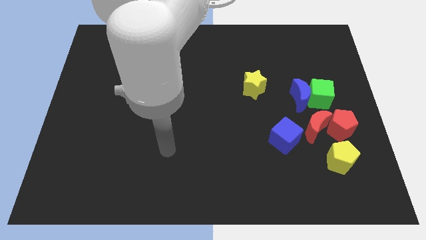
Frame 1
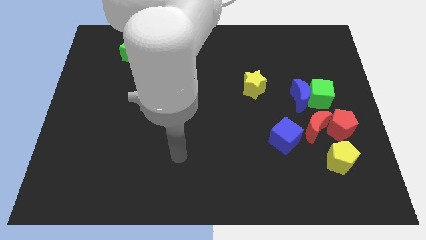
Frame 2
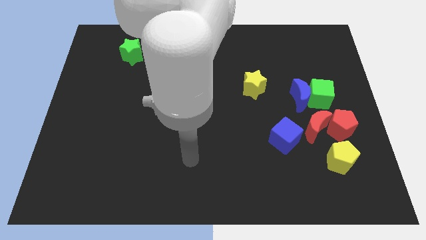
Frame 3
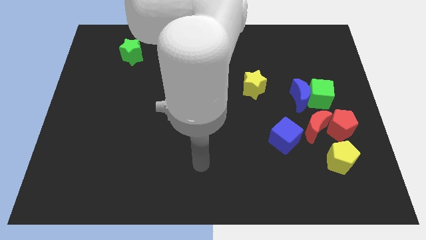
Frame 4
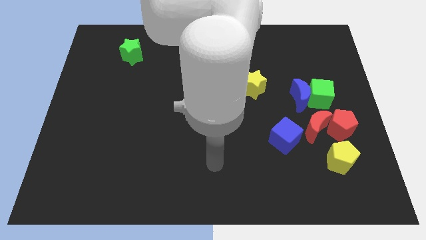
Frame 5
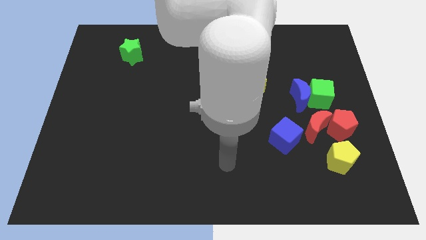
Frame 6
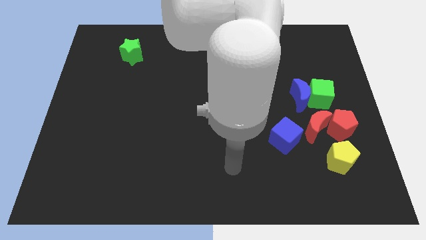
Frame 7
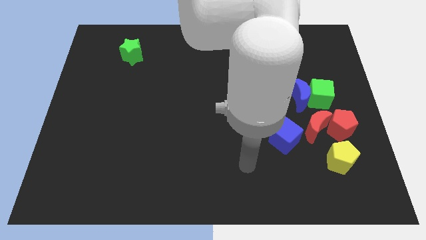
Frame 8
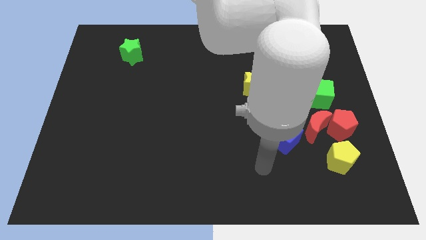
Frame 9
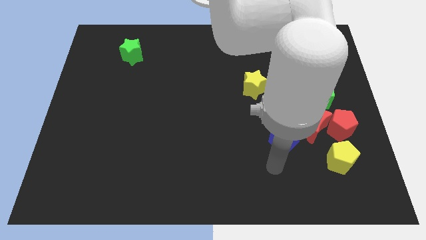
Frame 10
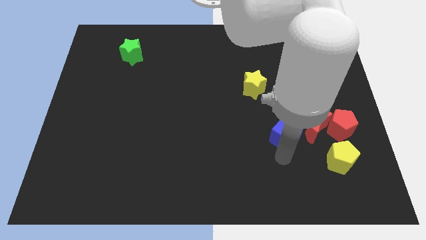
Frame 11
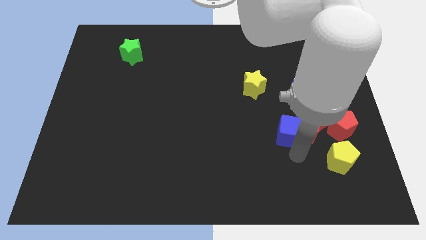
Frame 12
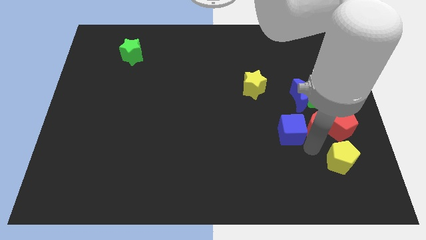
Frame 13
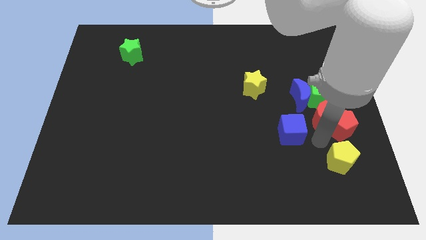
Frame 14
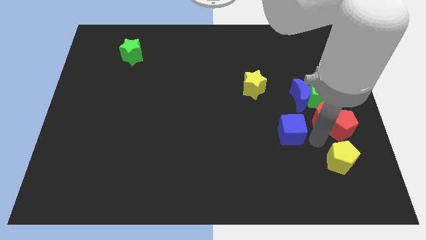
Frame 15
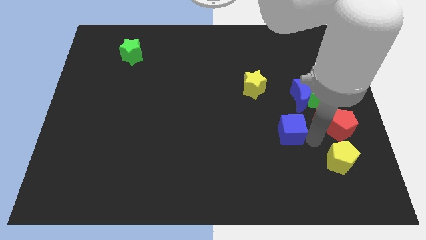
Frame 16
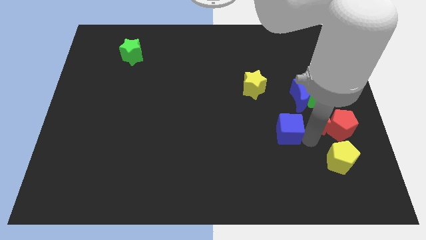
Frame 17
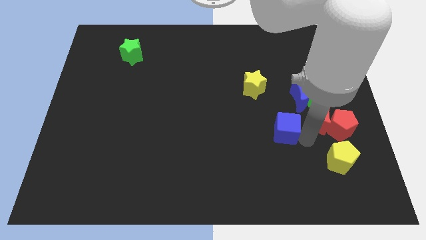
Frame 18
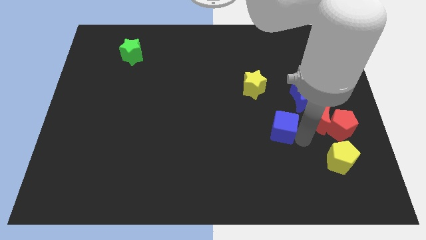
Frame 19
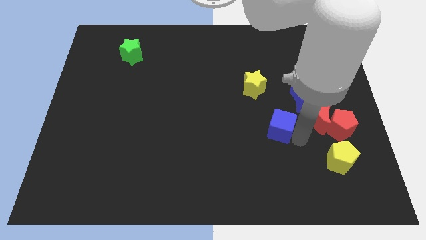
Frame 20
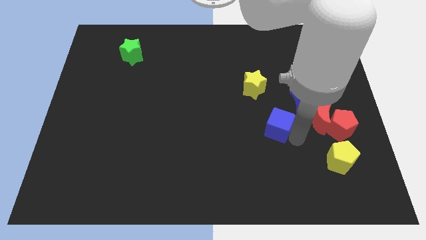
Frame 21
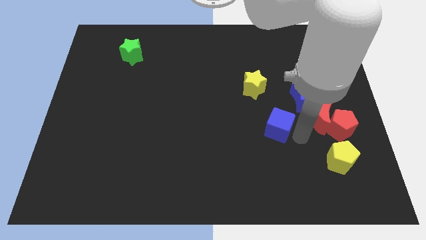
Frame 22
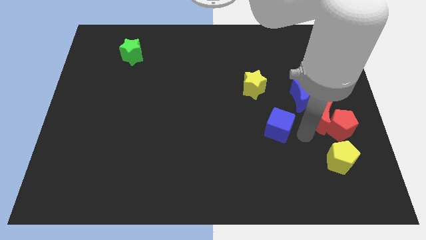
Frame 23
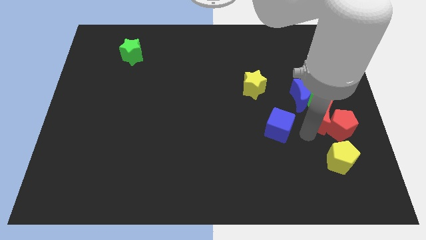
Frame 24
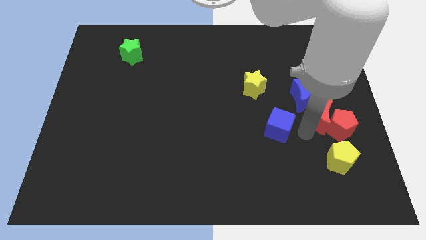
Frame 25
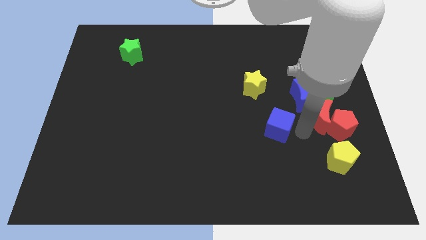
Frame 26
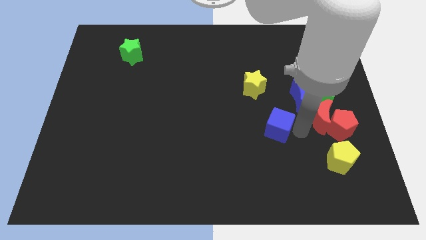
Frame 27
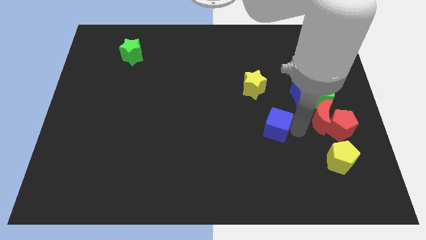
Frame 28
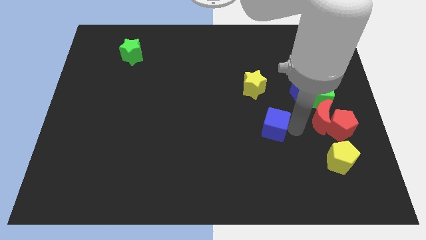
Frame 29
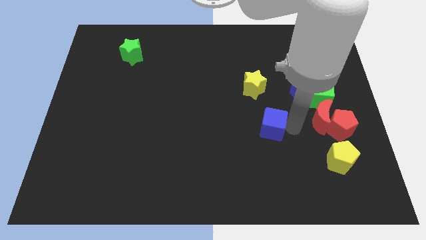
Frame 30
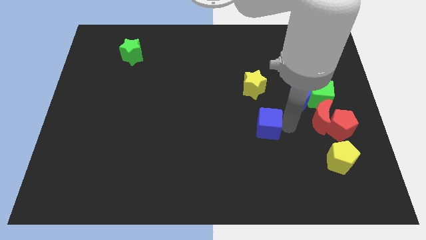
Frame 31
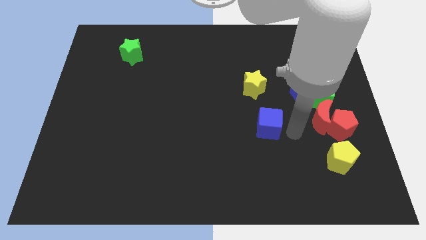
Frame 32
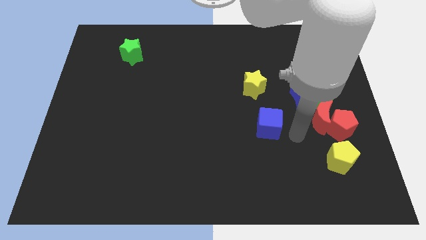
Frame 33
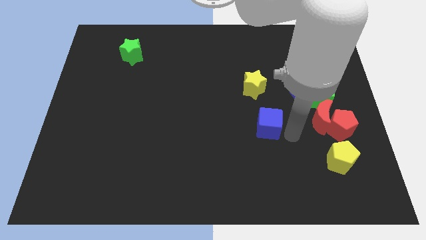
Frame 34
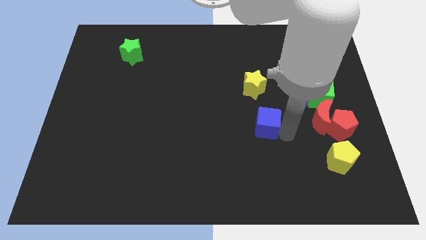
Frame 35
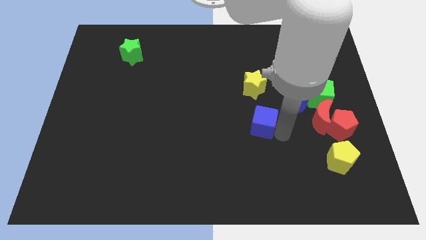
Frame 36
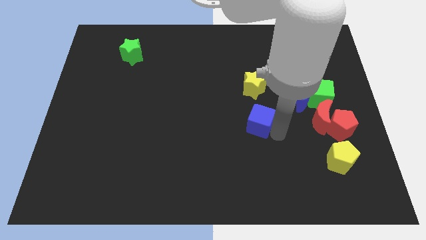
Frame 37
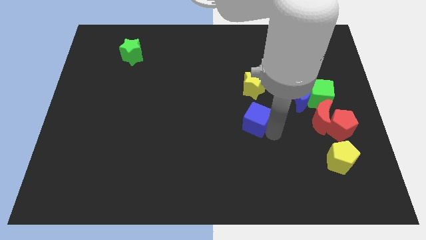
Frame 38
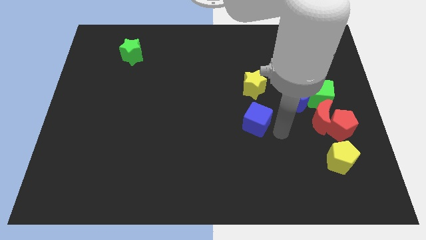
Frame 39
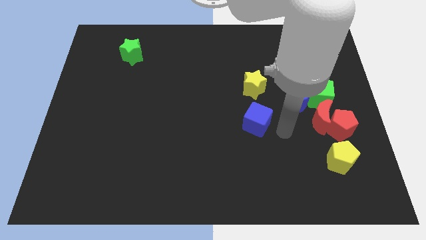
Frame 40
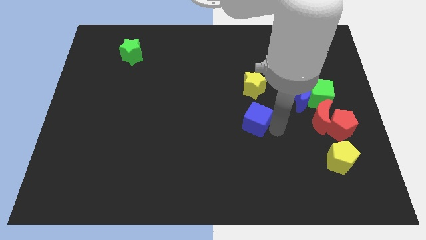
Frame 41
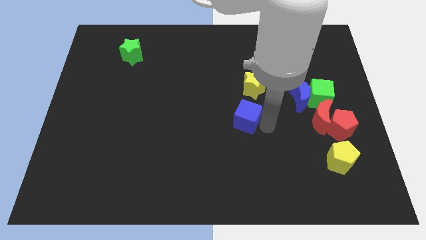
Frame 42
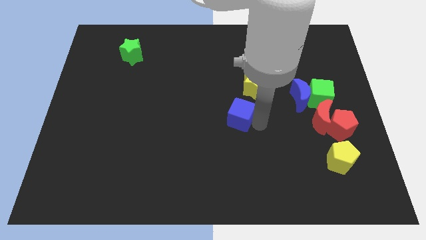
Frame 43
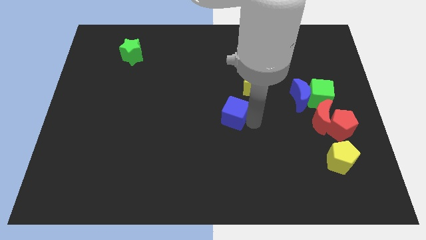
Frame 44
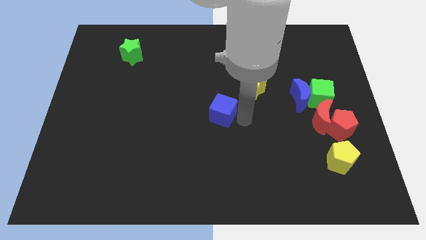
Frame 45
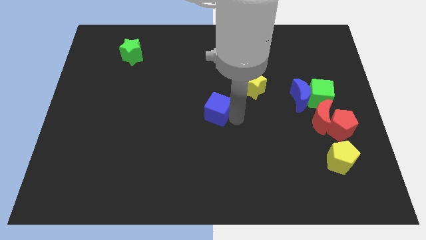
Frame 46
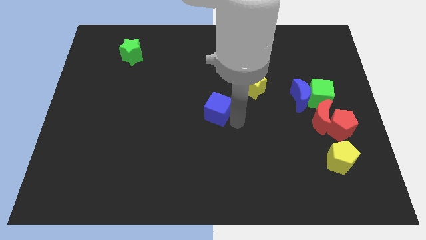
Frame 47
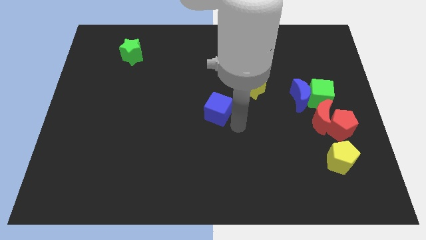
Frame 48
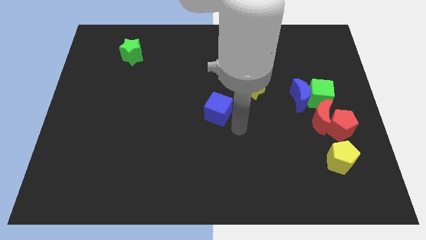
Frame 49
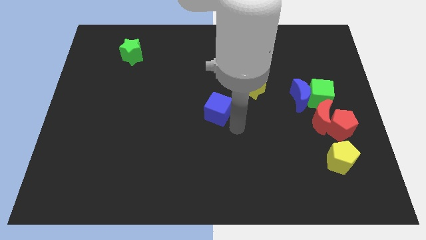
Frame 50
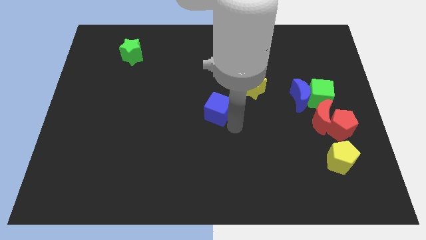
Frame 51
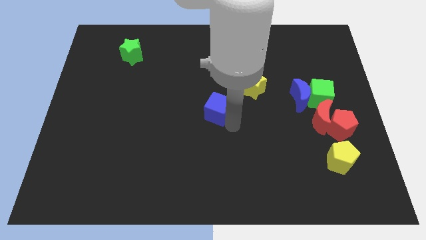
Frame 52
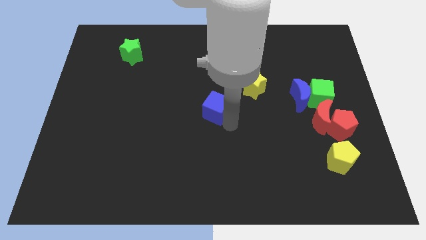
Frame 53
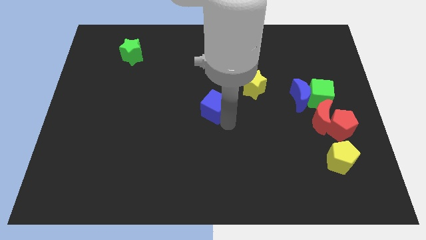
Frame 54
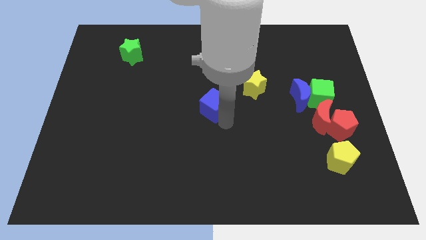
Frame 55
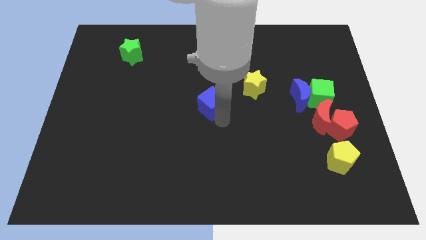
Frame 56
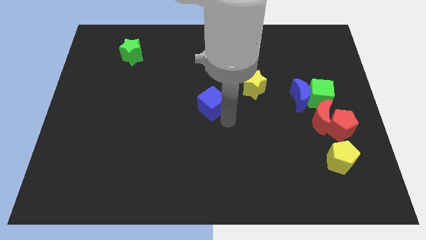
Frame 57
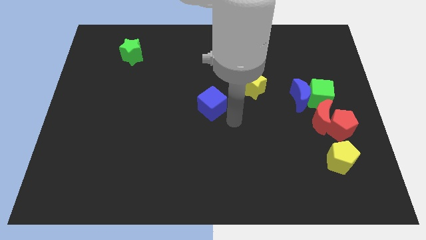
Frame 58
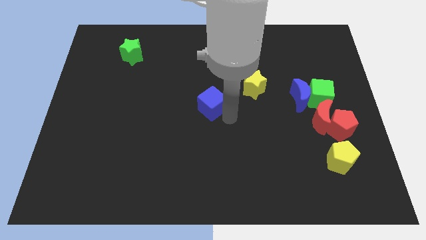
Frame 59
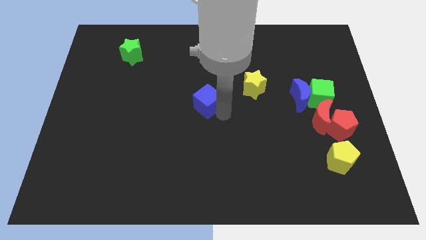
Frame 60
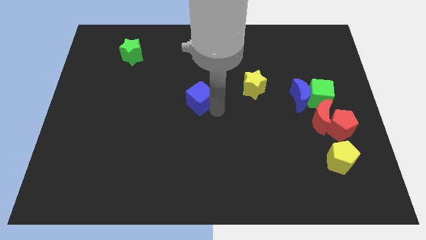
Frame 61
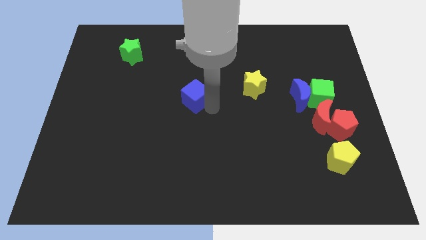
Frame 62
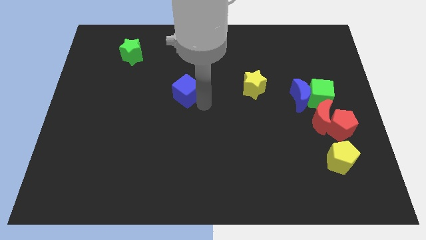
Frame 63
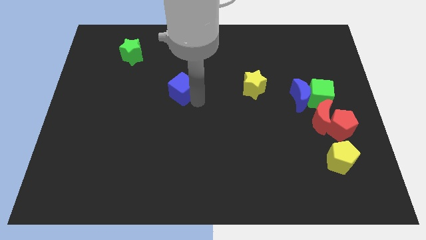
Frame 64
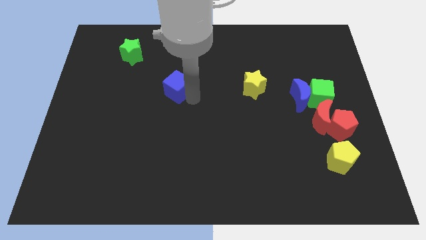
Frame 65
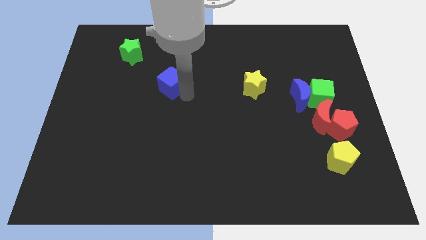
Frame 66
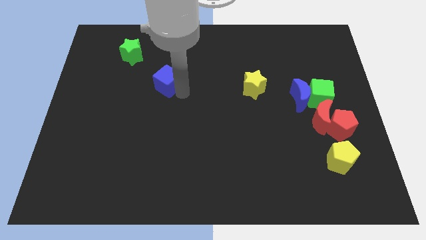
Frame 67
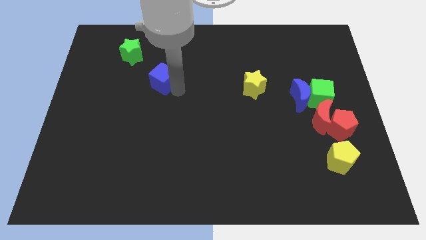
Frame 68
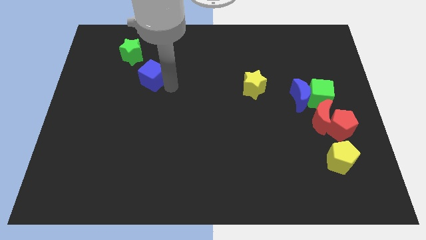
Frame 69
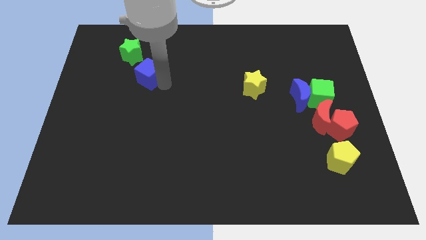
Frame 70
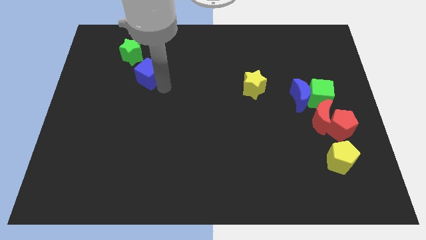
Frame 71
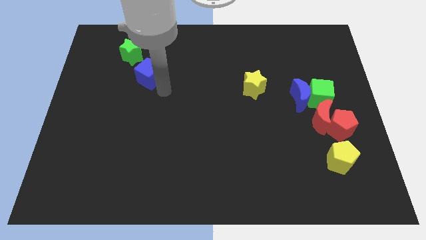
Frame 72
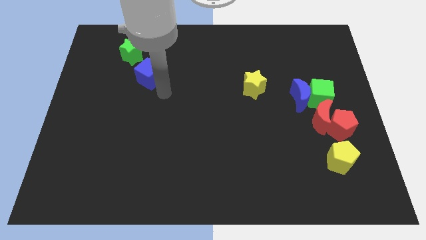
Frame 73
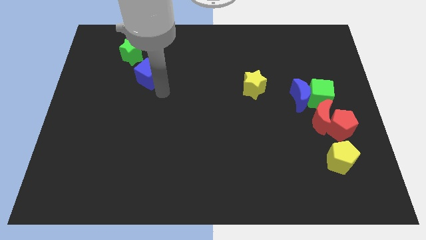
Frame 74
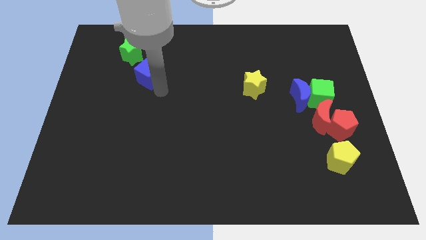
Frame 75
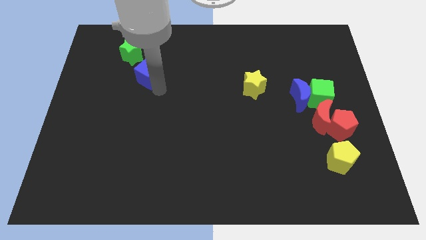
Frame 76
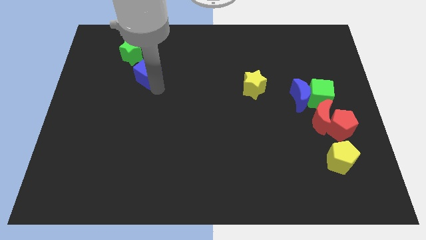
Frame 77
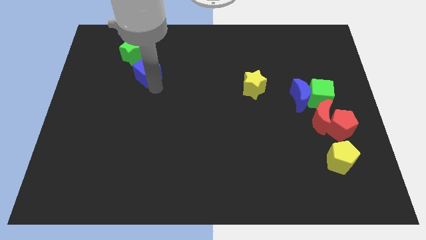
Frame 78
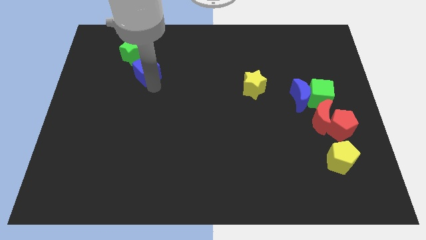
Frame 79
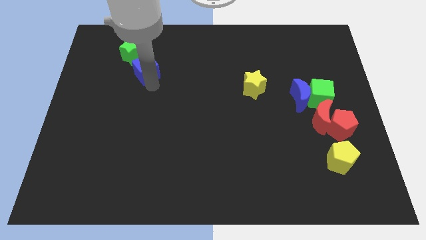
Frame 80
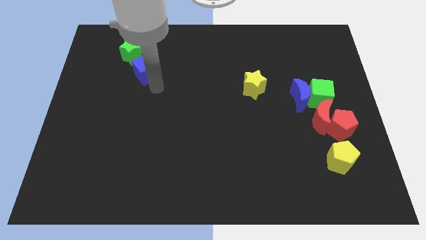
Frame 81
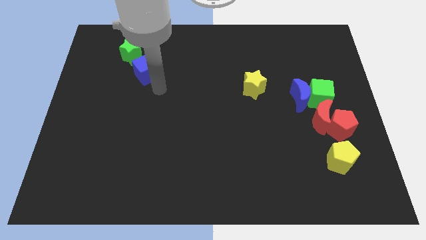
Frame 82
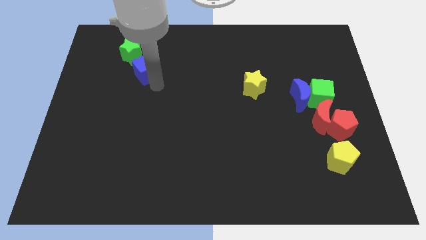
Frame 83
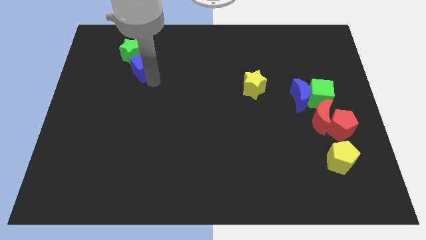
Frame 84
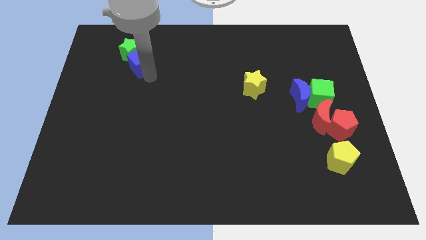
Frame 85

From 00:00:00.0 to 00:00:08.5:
move the blue cube close to the green star
